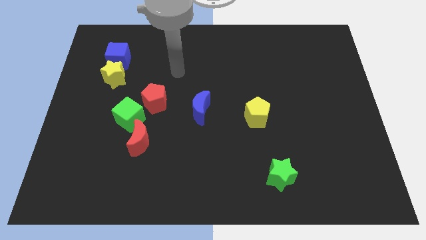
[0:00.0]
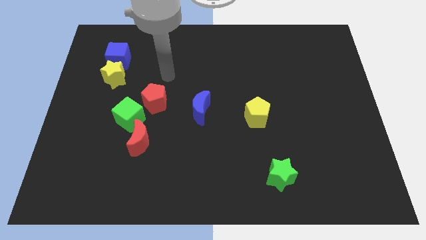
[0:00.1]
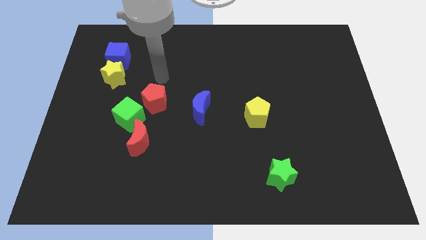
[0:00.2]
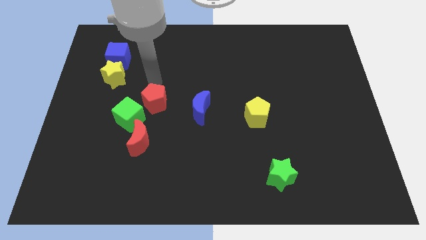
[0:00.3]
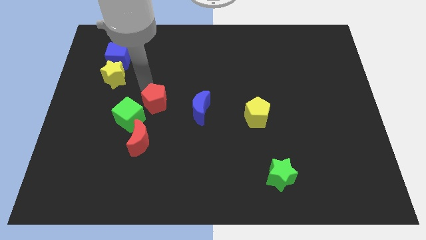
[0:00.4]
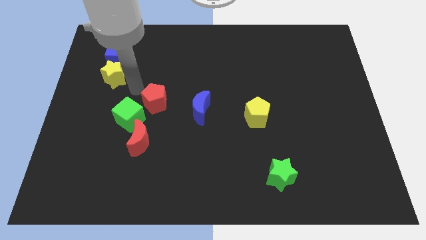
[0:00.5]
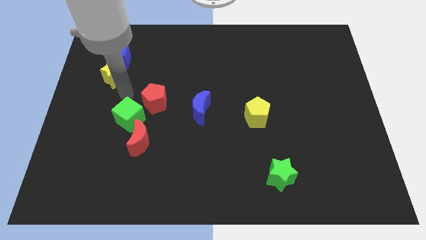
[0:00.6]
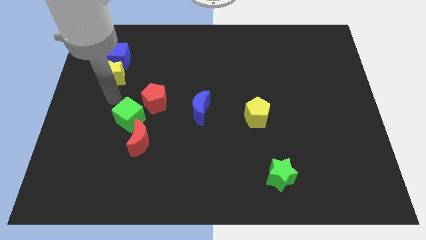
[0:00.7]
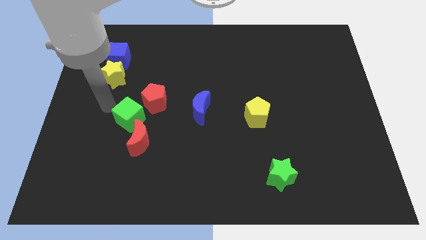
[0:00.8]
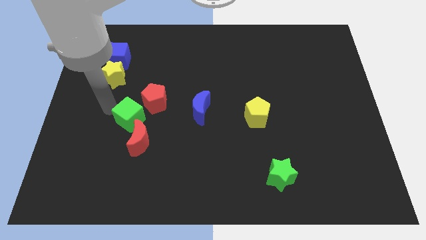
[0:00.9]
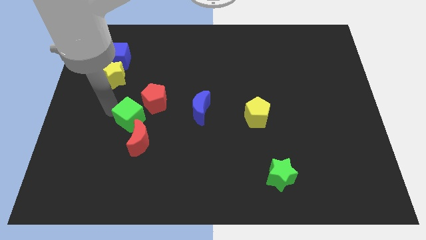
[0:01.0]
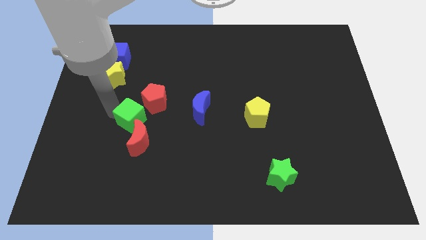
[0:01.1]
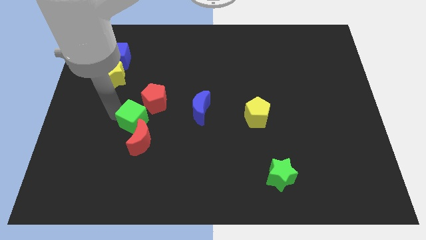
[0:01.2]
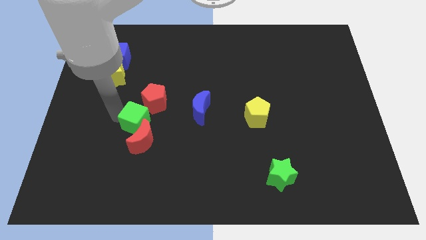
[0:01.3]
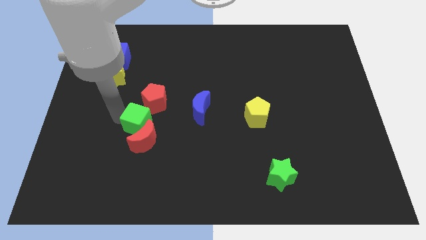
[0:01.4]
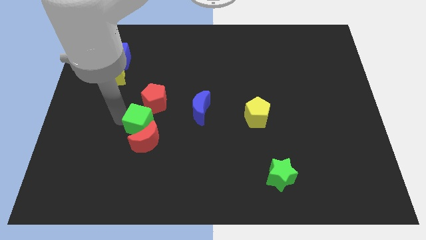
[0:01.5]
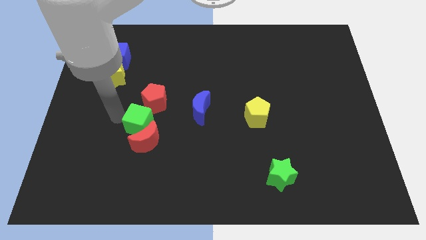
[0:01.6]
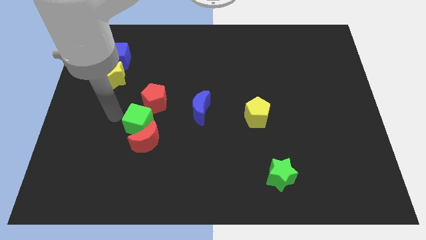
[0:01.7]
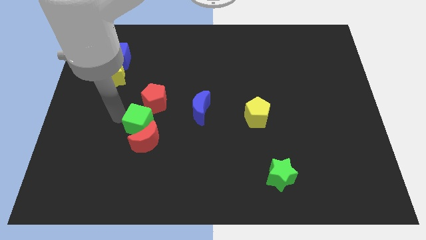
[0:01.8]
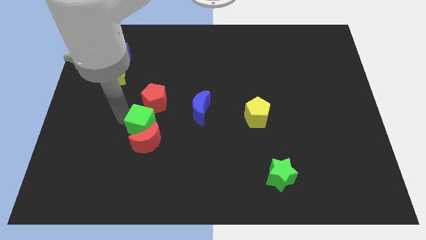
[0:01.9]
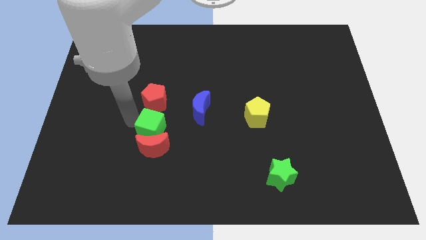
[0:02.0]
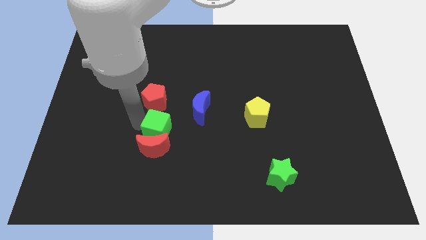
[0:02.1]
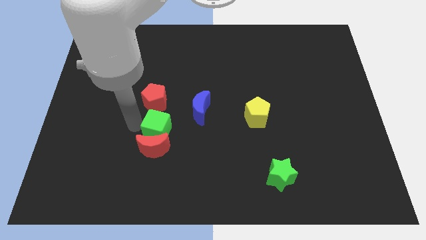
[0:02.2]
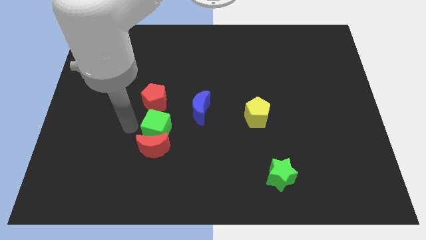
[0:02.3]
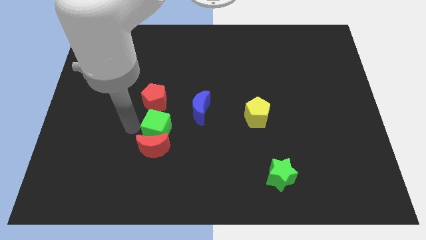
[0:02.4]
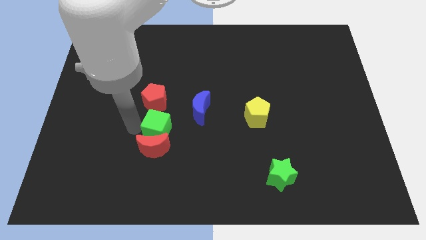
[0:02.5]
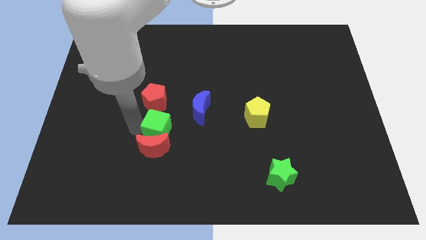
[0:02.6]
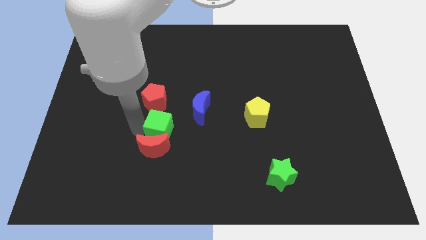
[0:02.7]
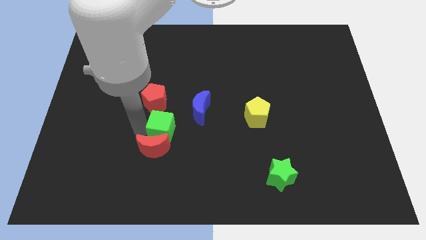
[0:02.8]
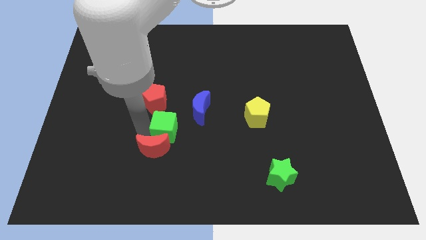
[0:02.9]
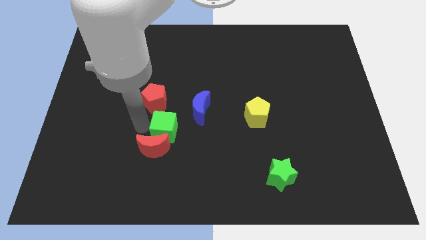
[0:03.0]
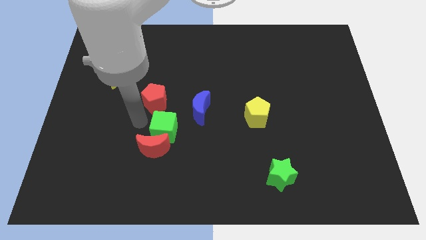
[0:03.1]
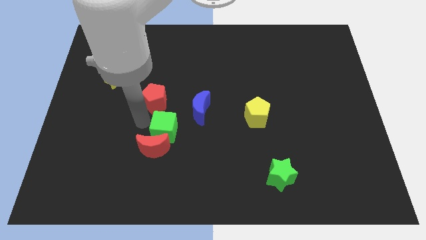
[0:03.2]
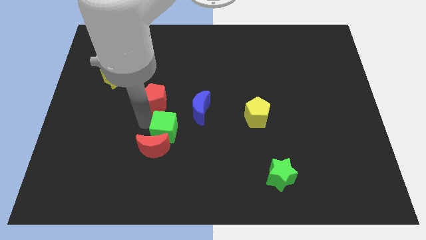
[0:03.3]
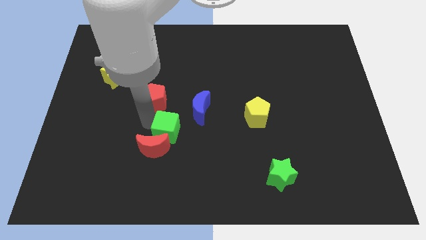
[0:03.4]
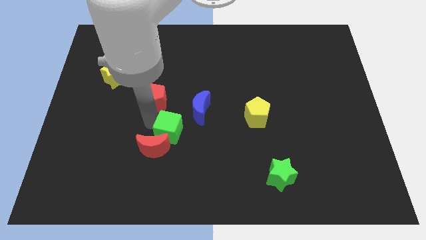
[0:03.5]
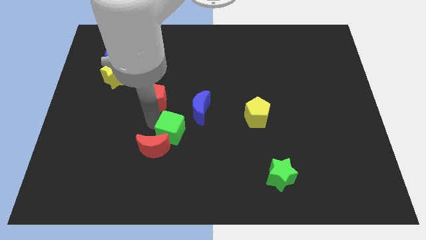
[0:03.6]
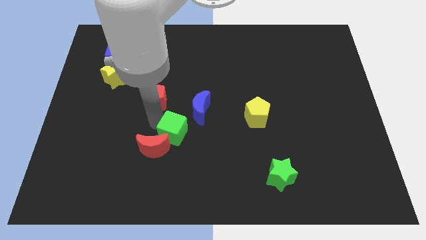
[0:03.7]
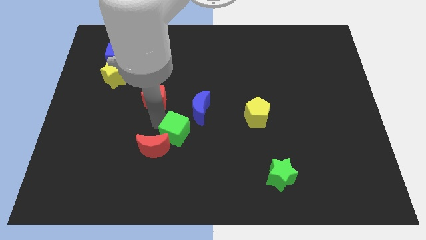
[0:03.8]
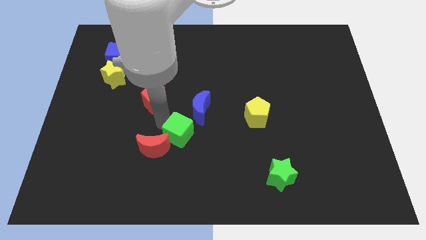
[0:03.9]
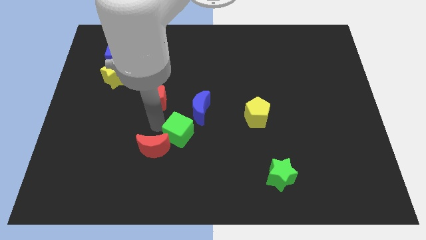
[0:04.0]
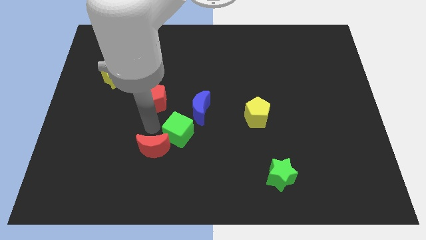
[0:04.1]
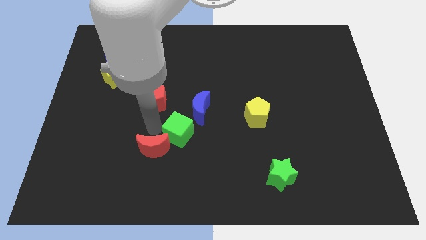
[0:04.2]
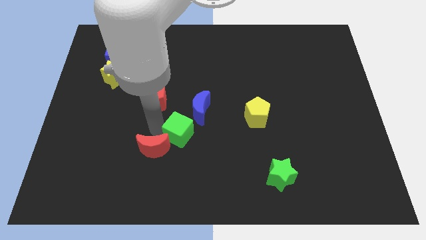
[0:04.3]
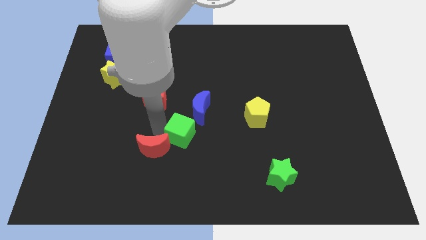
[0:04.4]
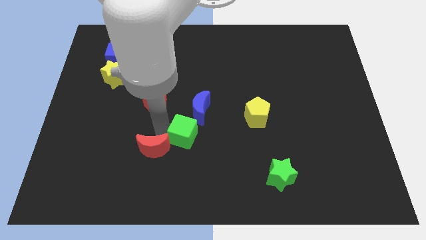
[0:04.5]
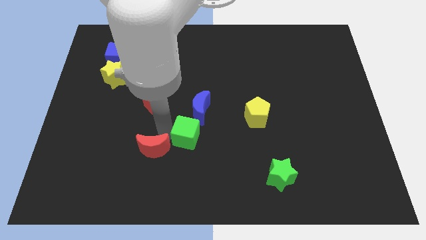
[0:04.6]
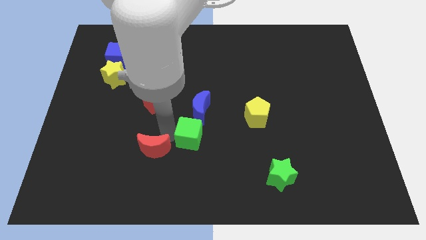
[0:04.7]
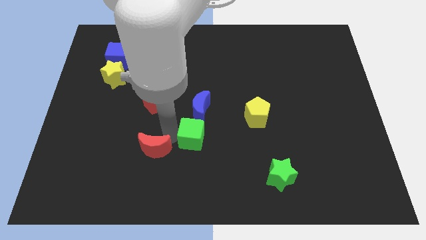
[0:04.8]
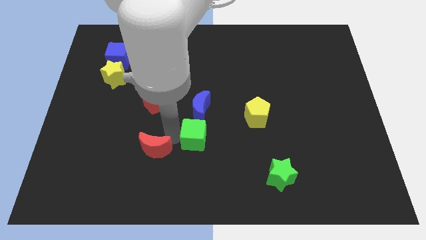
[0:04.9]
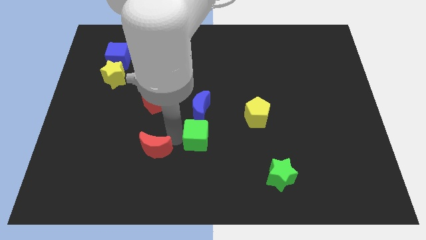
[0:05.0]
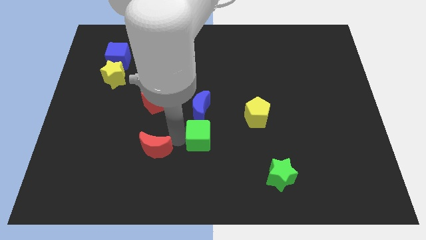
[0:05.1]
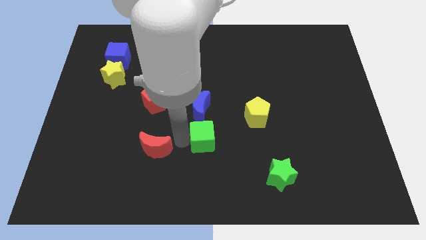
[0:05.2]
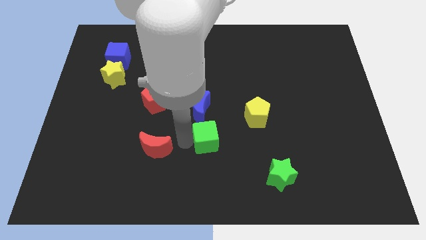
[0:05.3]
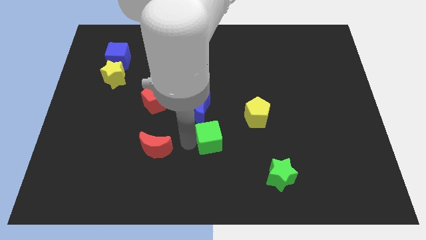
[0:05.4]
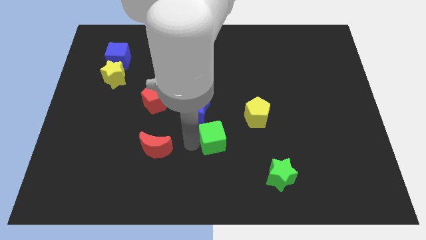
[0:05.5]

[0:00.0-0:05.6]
push the green cube to the bottom left of the yellow pentagon

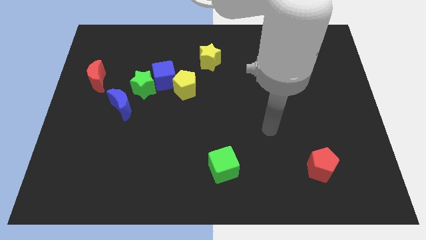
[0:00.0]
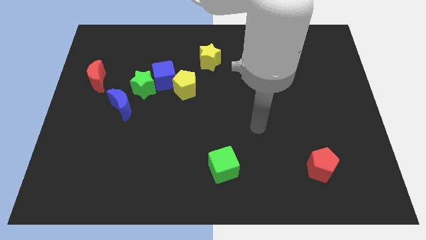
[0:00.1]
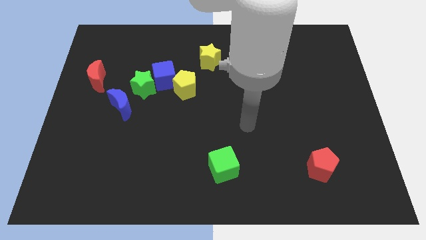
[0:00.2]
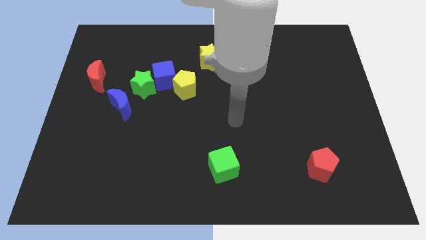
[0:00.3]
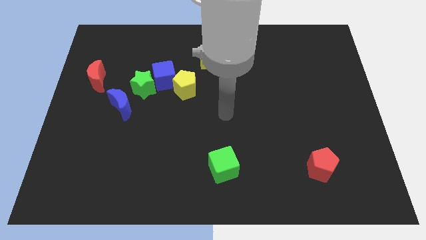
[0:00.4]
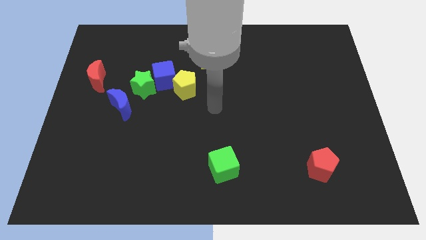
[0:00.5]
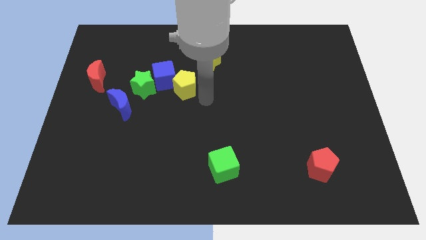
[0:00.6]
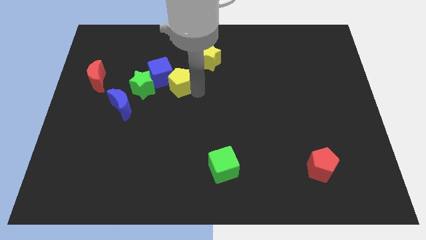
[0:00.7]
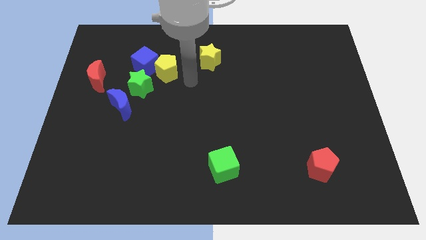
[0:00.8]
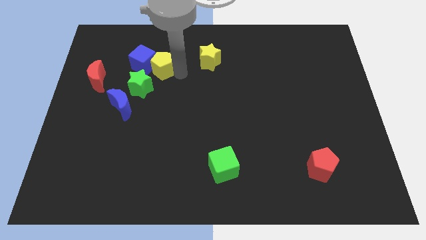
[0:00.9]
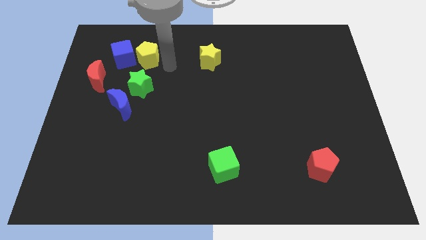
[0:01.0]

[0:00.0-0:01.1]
slide the blue cube to the top left of the green star
